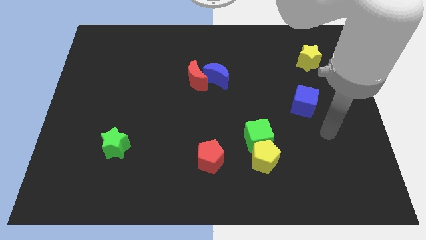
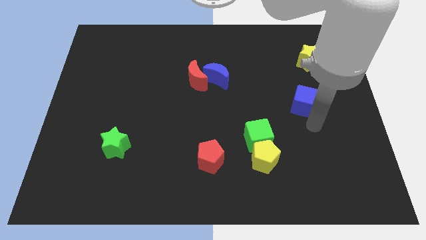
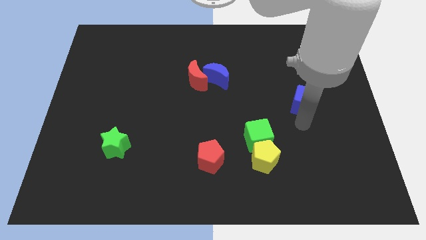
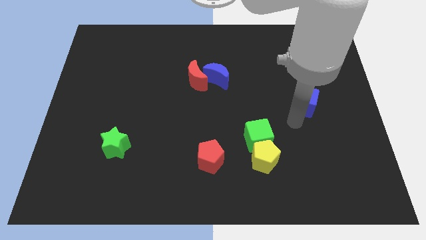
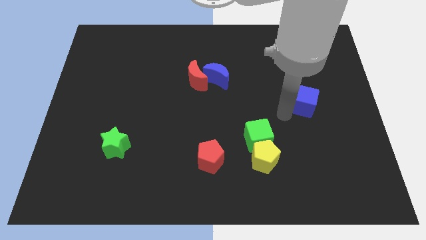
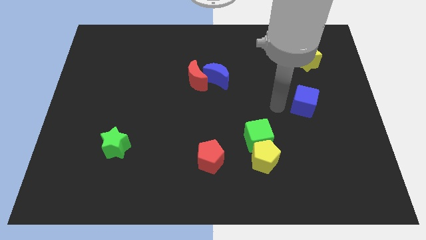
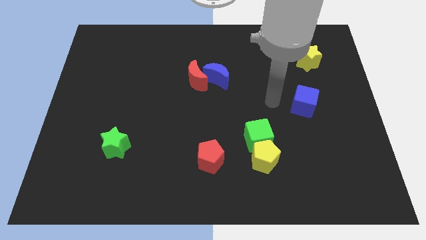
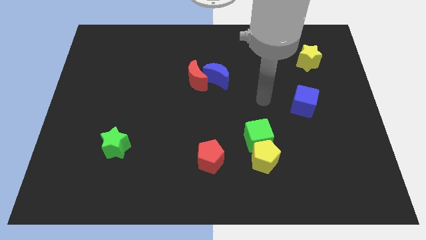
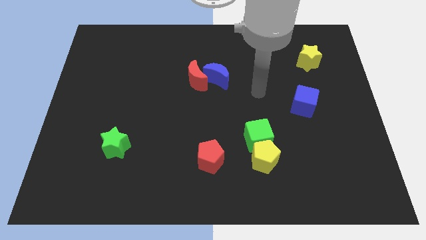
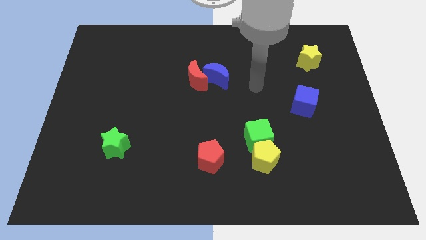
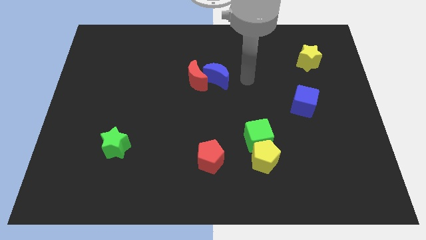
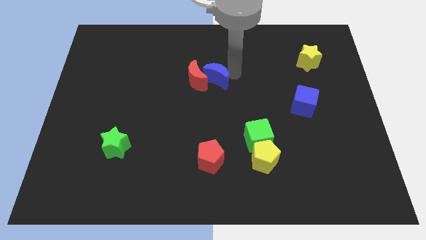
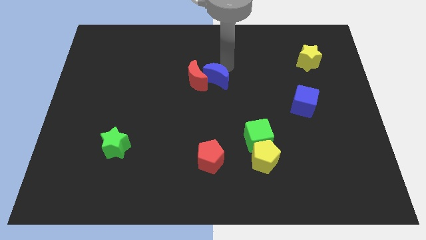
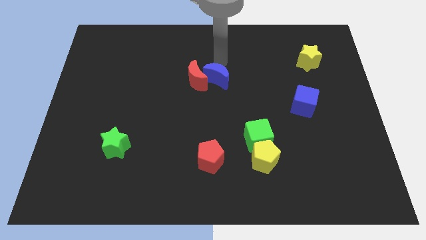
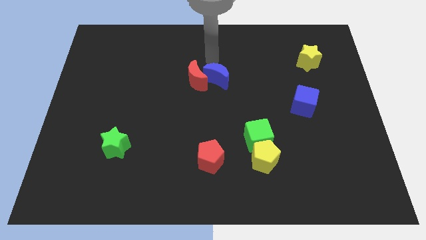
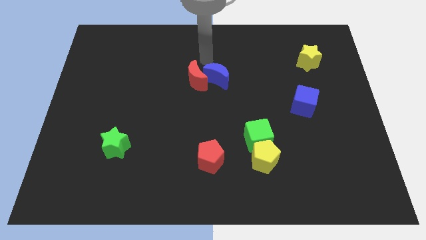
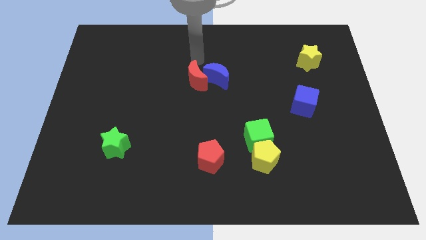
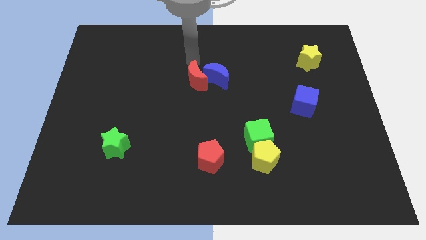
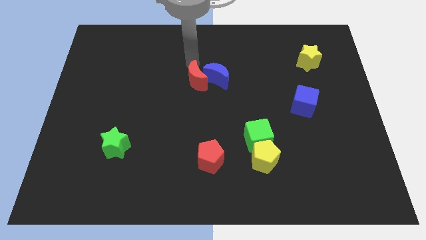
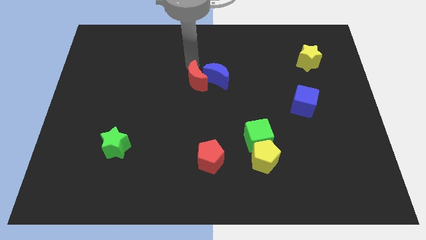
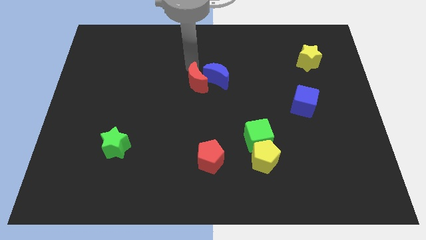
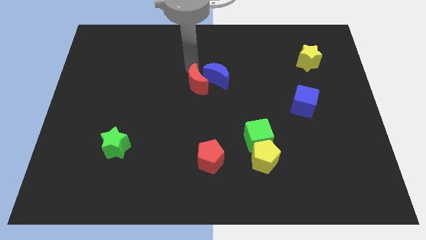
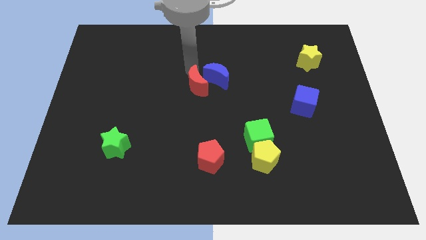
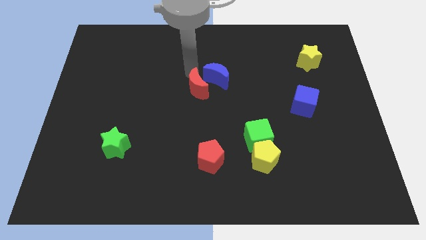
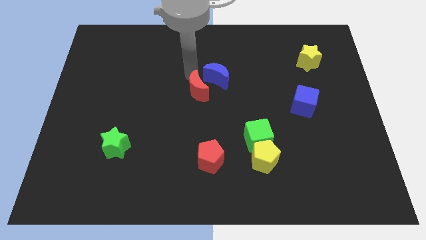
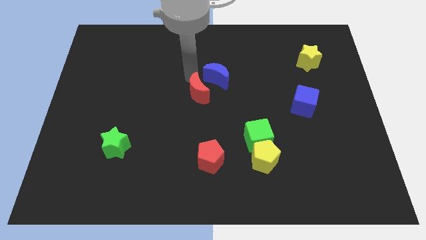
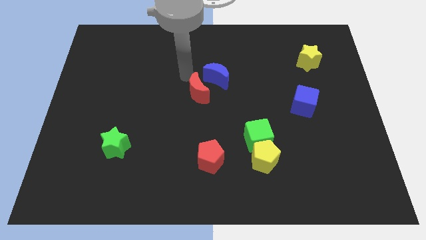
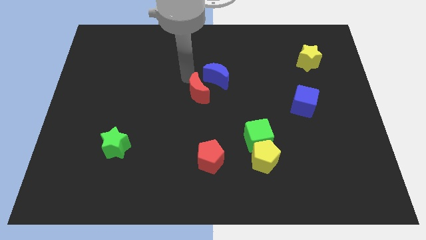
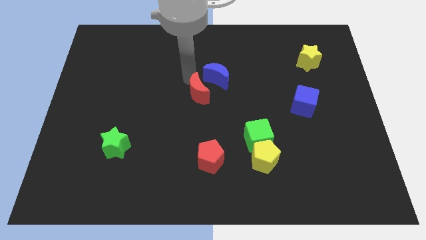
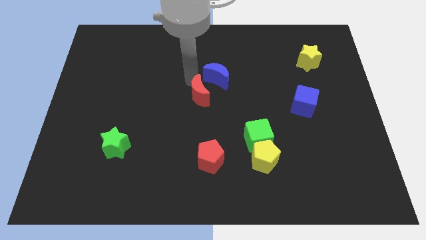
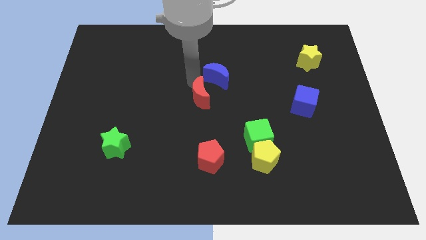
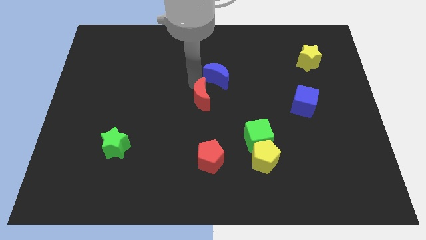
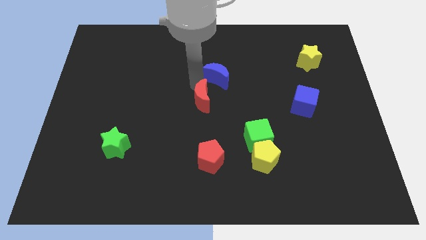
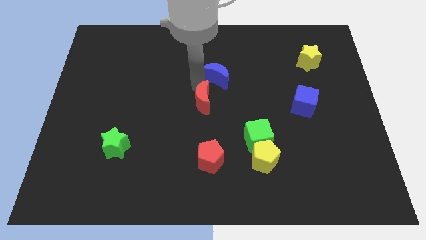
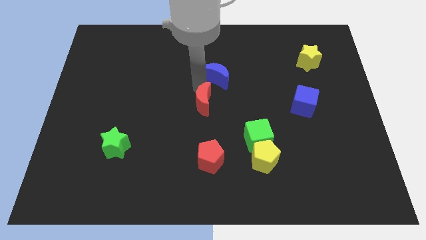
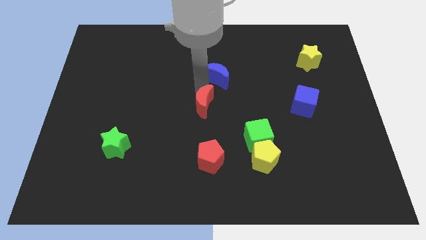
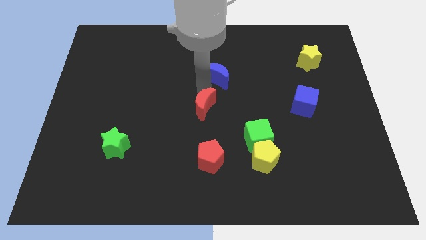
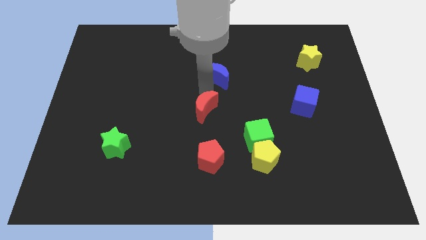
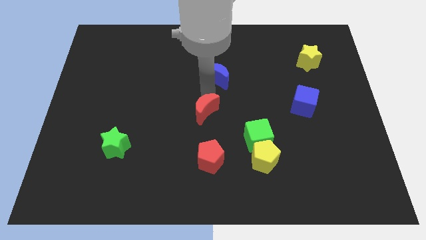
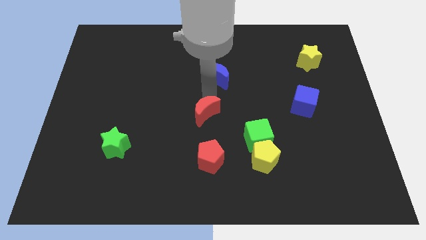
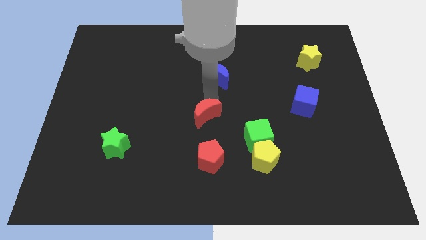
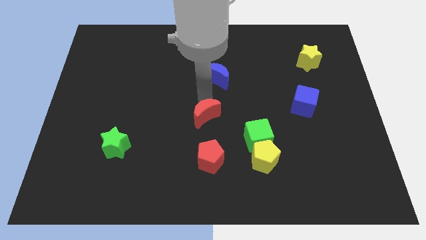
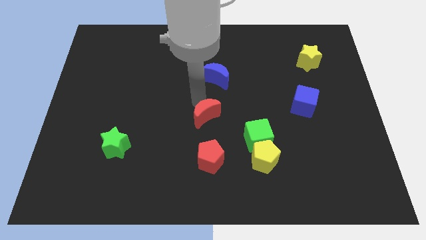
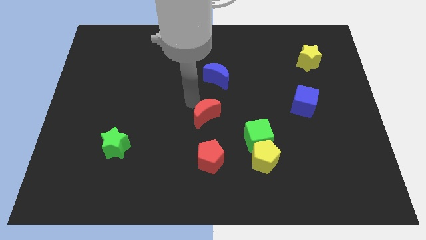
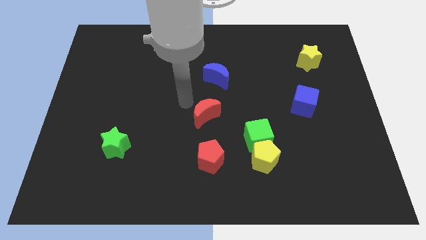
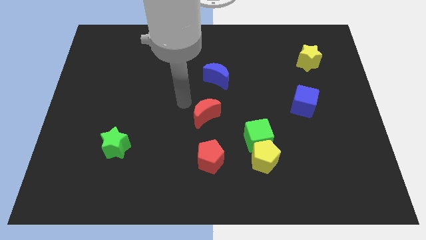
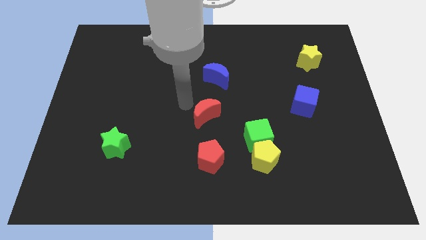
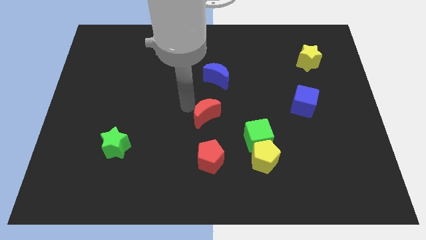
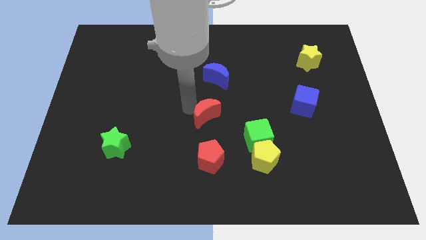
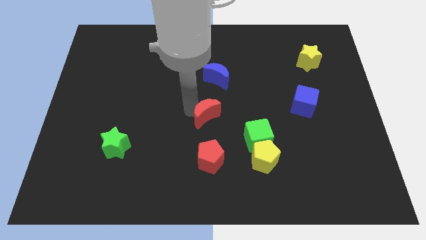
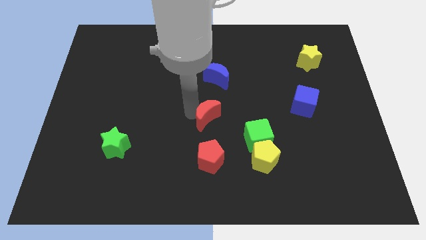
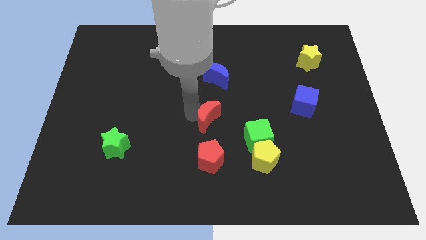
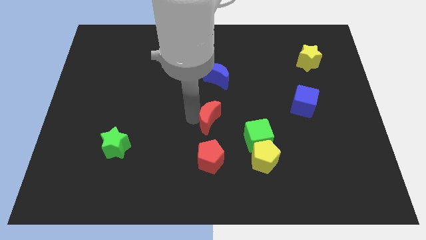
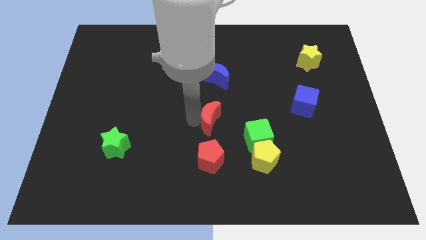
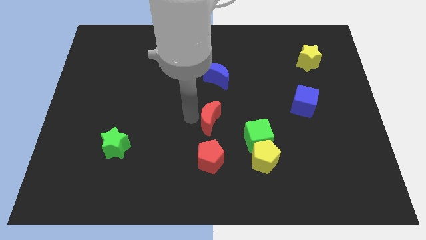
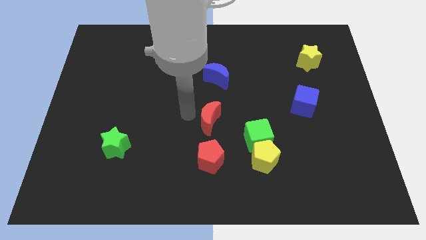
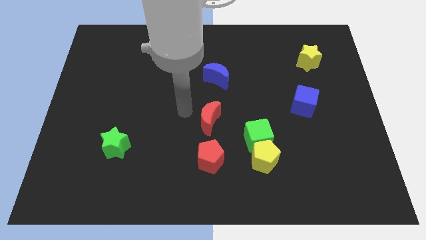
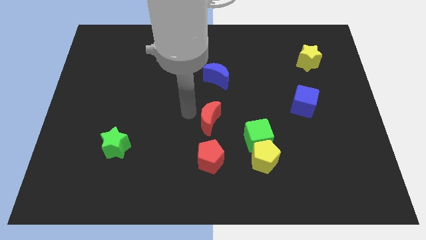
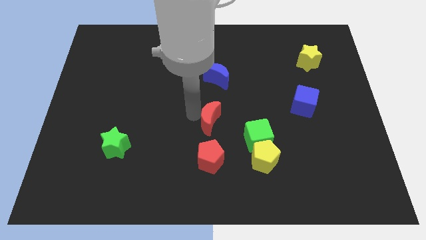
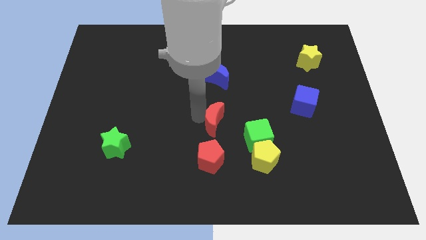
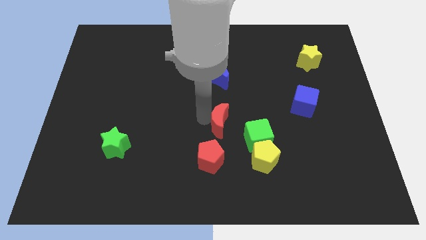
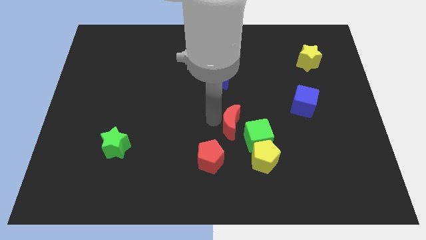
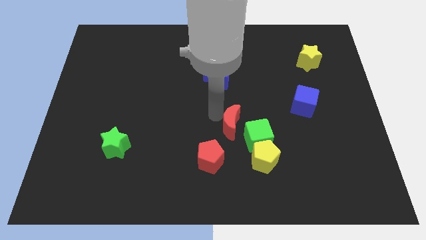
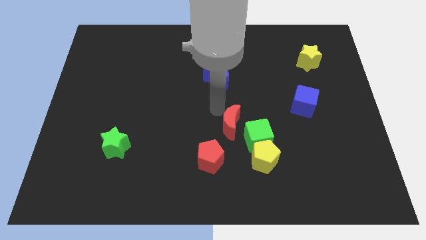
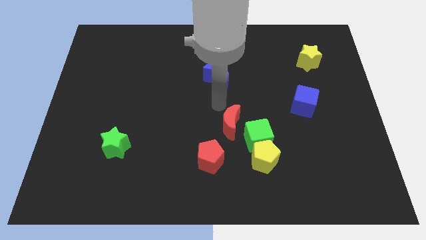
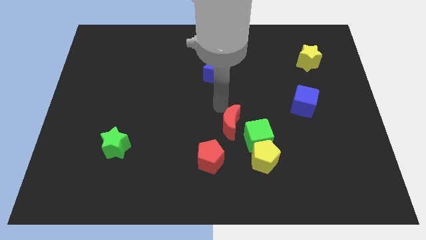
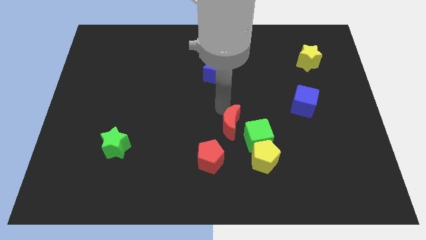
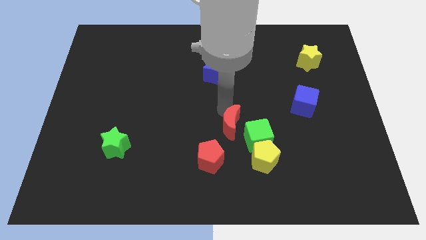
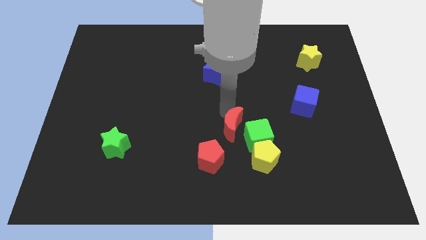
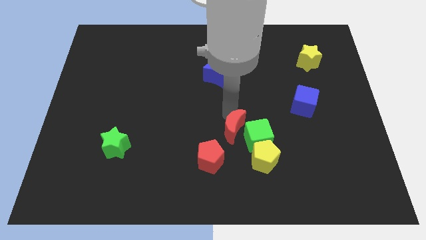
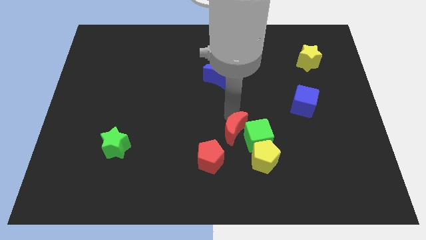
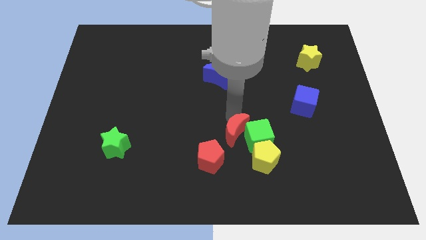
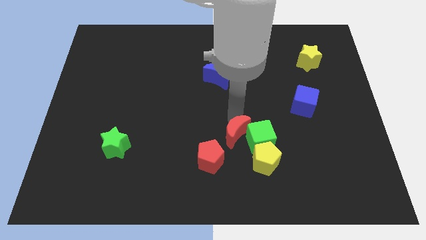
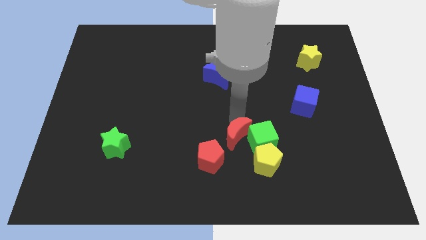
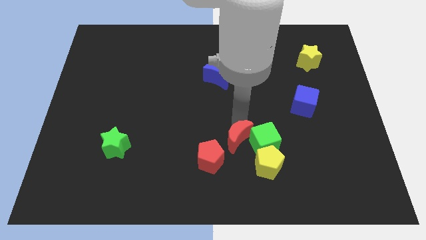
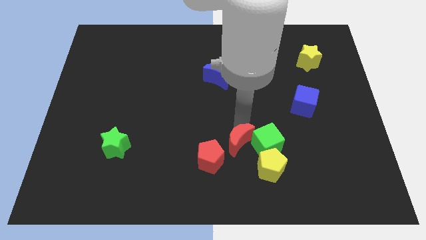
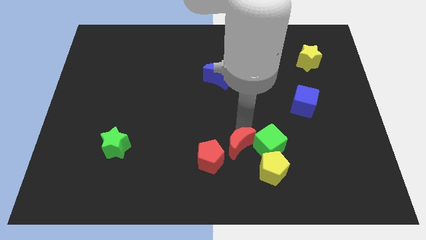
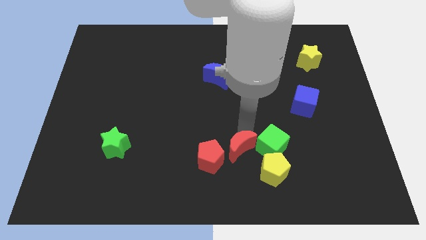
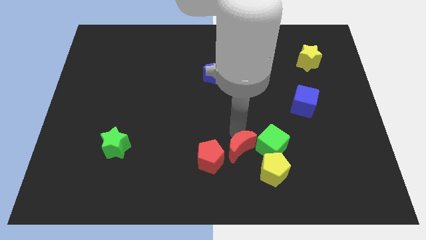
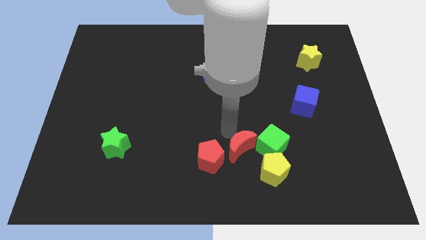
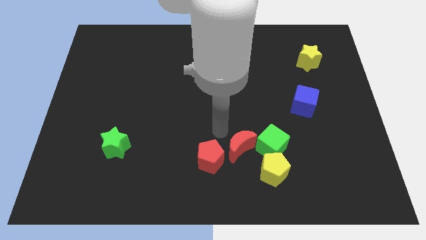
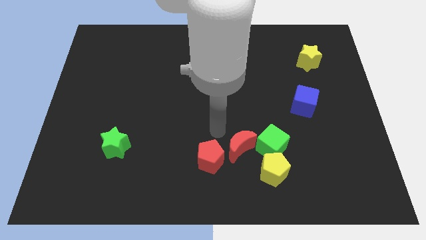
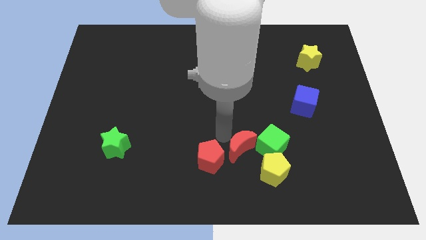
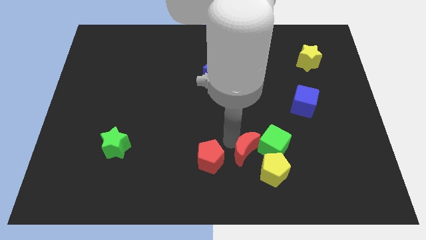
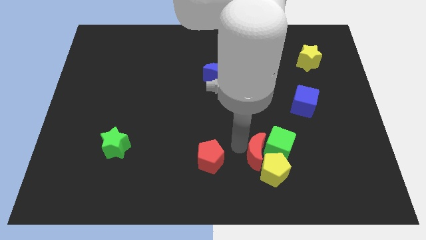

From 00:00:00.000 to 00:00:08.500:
move the red moon close to the yellow pentagon
